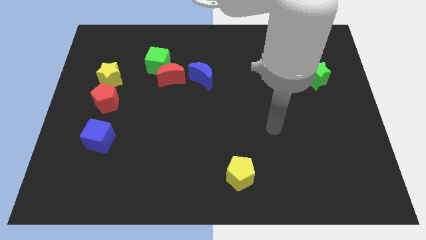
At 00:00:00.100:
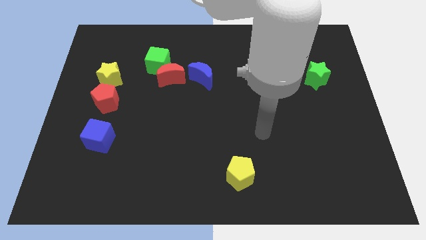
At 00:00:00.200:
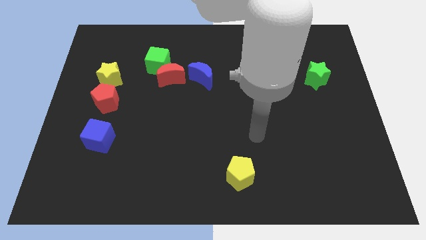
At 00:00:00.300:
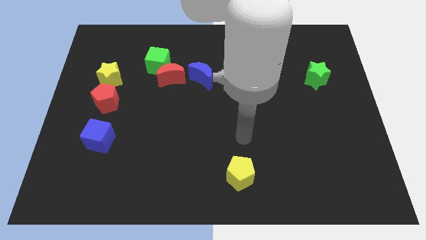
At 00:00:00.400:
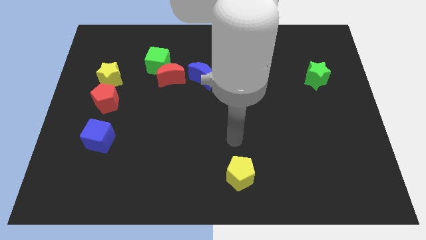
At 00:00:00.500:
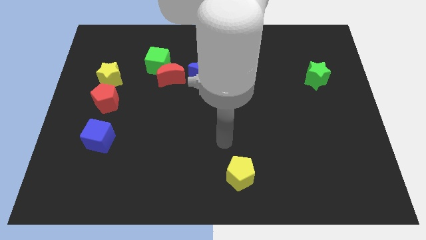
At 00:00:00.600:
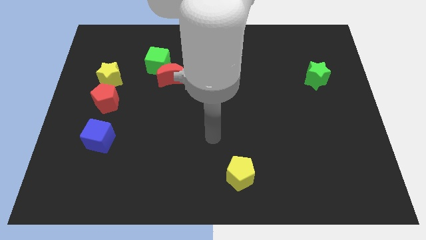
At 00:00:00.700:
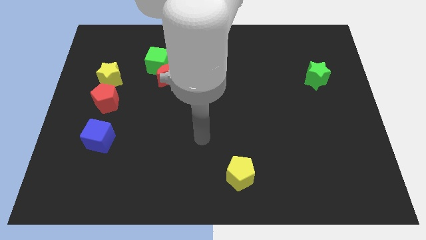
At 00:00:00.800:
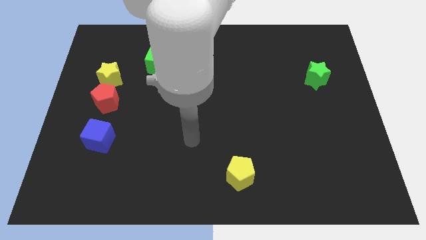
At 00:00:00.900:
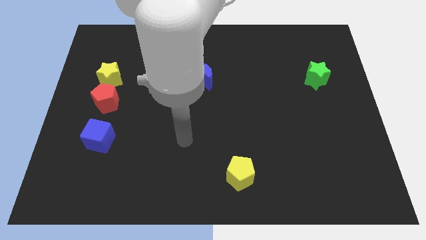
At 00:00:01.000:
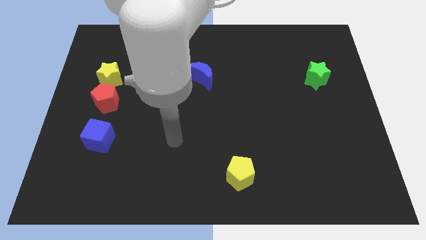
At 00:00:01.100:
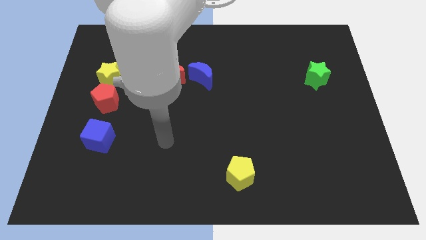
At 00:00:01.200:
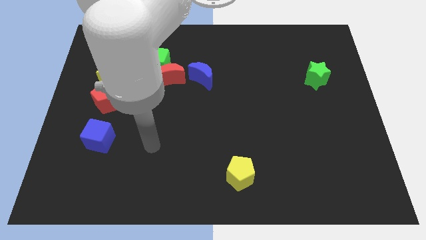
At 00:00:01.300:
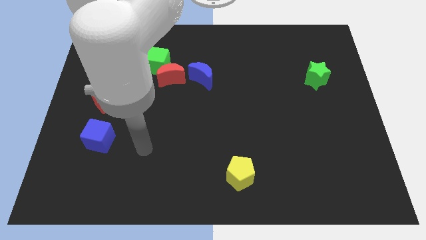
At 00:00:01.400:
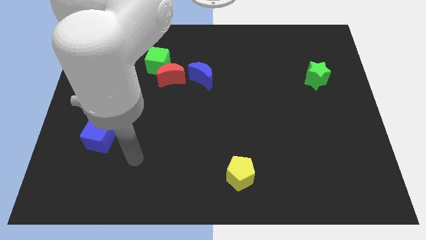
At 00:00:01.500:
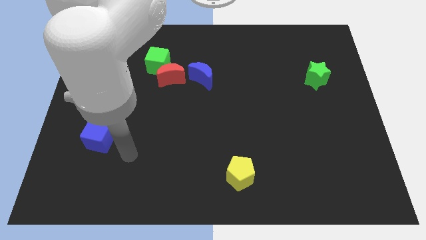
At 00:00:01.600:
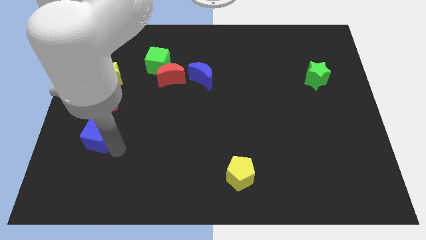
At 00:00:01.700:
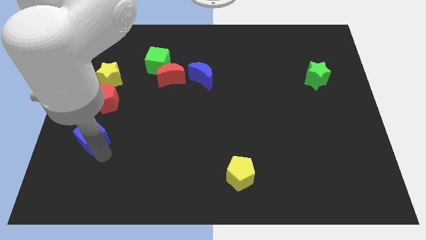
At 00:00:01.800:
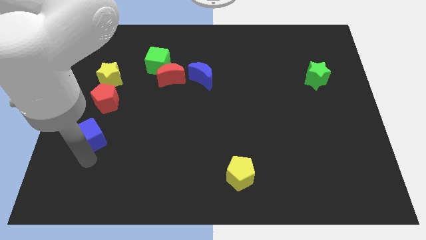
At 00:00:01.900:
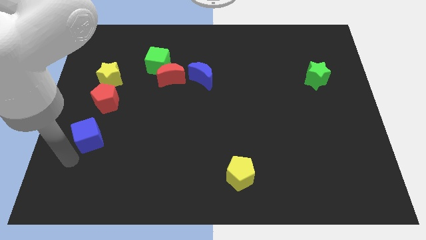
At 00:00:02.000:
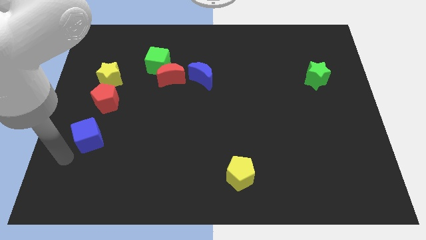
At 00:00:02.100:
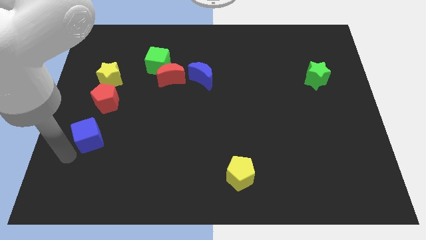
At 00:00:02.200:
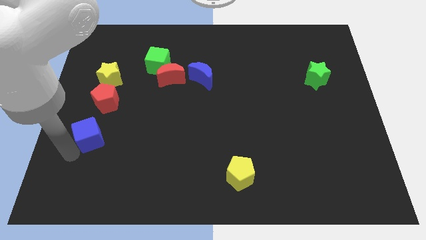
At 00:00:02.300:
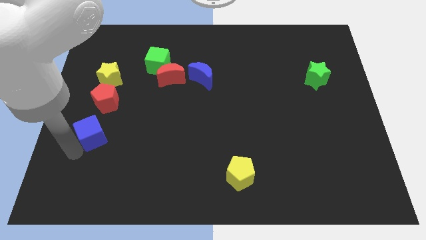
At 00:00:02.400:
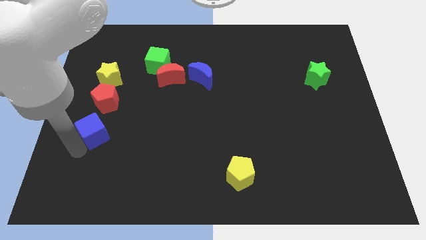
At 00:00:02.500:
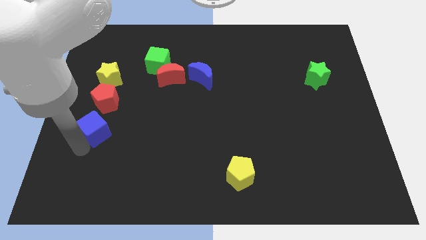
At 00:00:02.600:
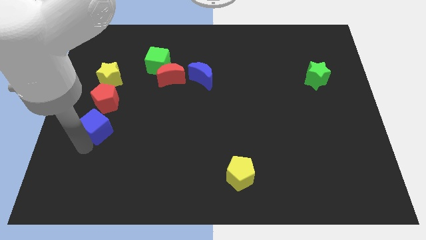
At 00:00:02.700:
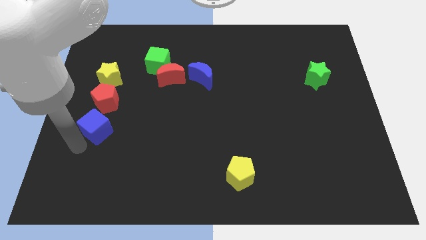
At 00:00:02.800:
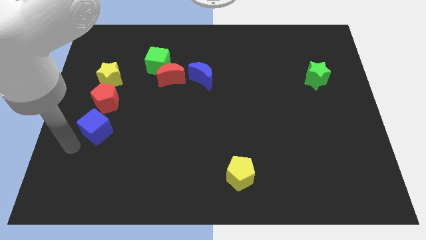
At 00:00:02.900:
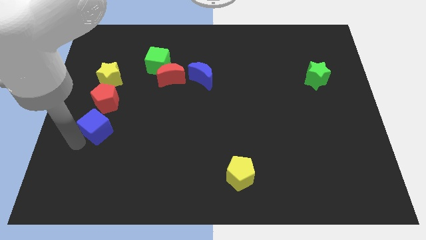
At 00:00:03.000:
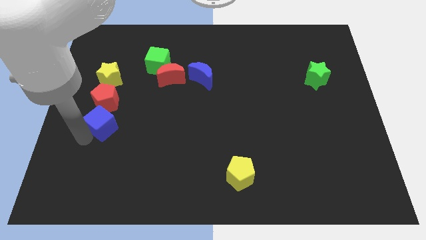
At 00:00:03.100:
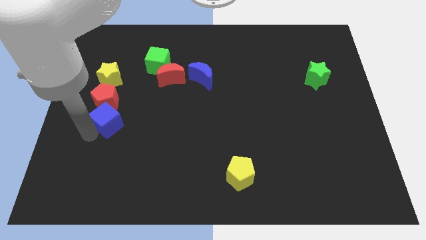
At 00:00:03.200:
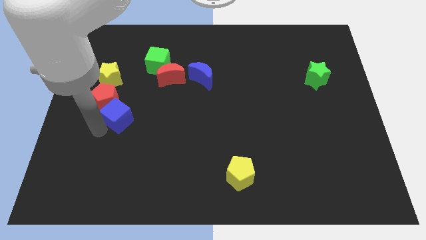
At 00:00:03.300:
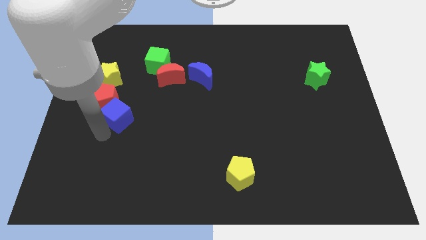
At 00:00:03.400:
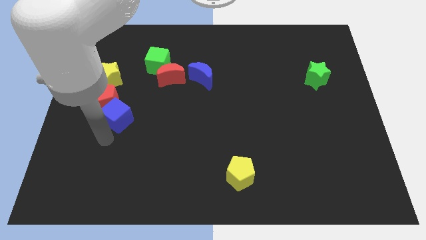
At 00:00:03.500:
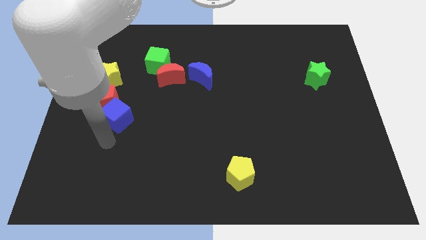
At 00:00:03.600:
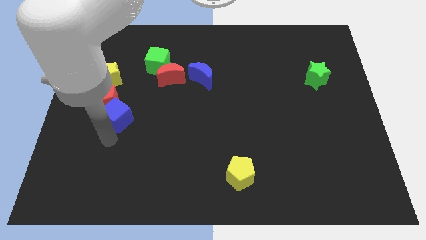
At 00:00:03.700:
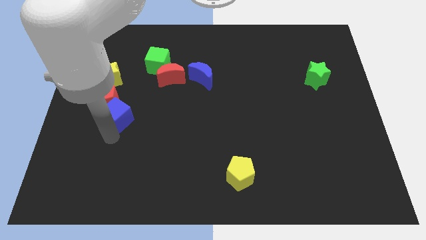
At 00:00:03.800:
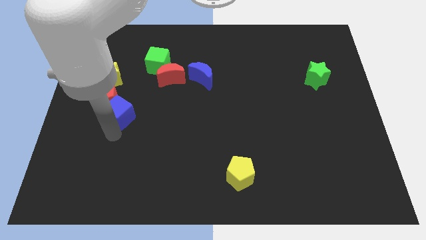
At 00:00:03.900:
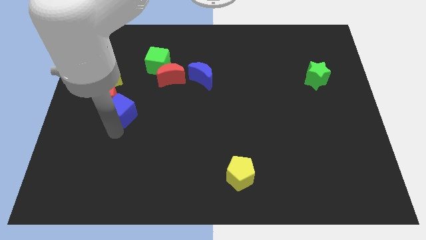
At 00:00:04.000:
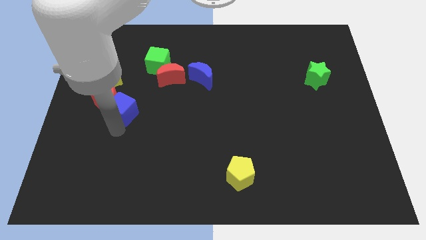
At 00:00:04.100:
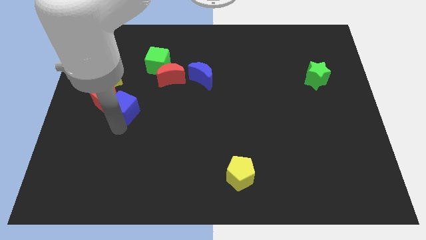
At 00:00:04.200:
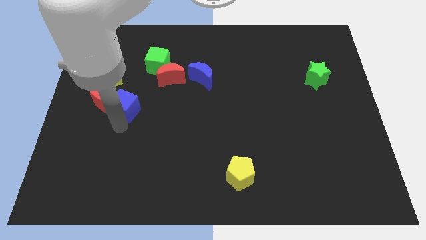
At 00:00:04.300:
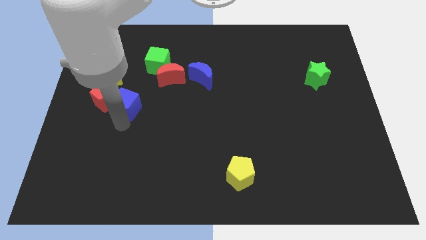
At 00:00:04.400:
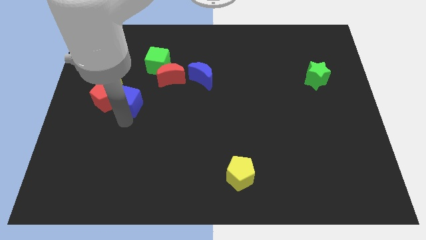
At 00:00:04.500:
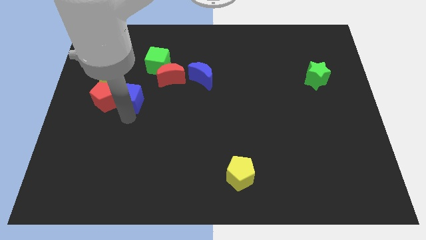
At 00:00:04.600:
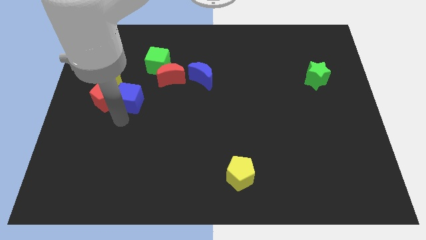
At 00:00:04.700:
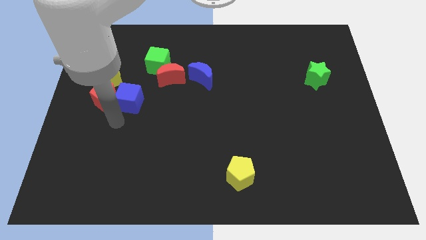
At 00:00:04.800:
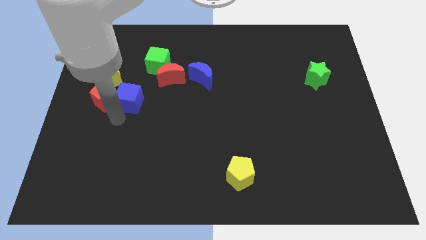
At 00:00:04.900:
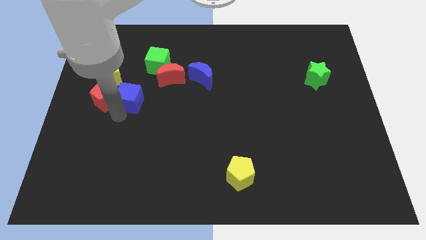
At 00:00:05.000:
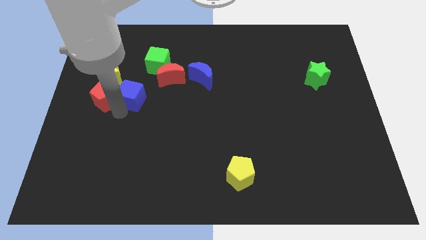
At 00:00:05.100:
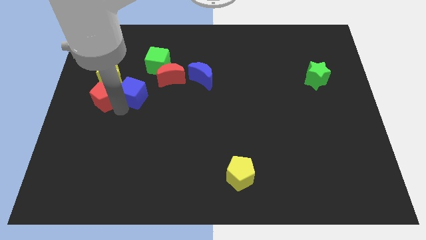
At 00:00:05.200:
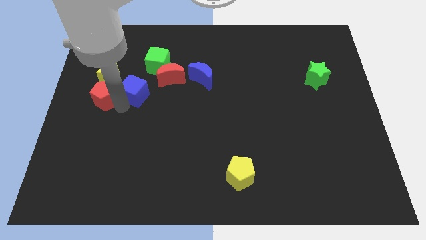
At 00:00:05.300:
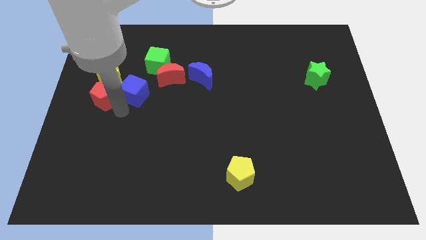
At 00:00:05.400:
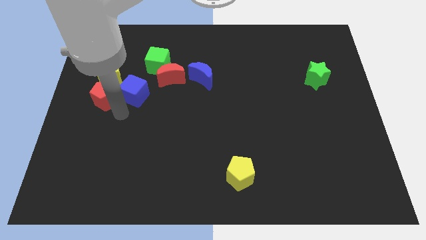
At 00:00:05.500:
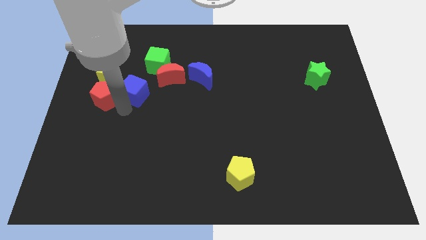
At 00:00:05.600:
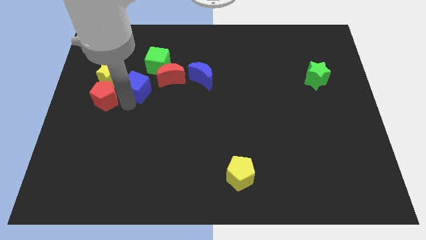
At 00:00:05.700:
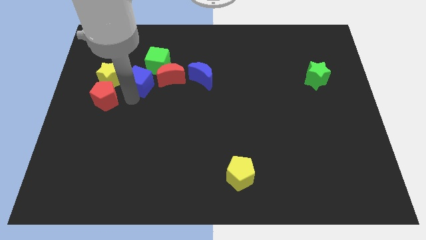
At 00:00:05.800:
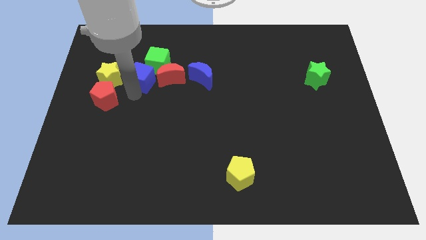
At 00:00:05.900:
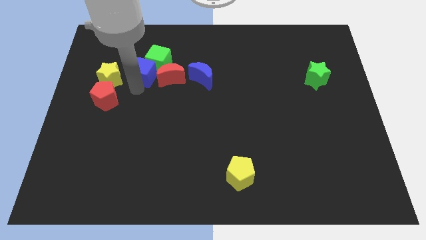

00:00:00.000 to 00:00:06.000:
slide the blue cube close to the green cube

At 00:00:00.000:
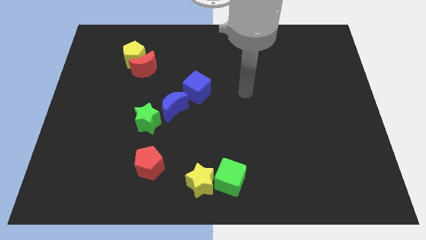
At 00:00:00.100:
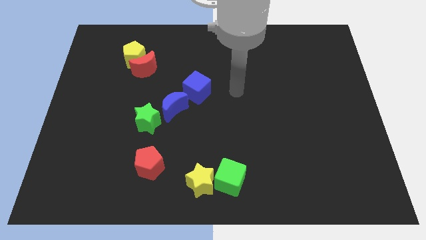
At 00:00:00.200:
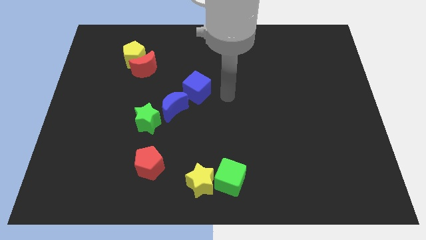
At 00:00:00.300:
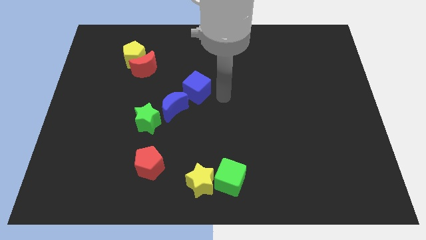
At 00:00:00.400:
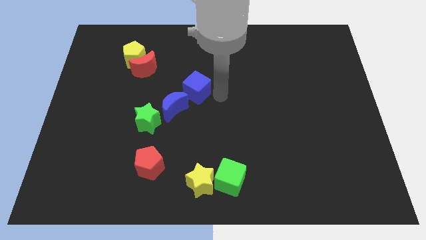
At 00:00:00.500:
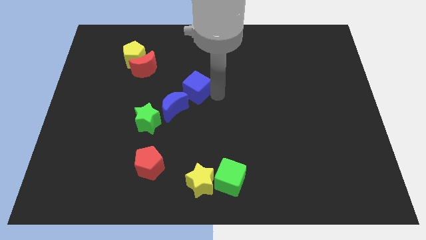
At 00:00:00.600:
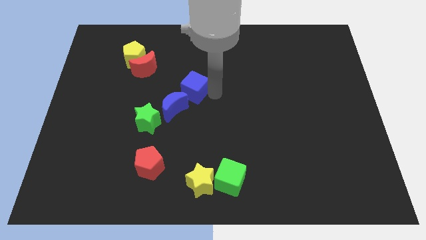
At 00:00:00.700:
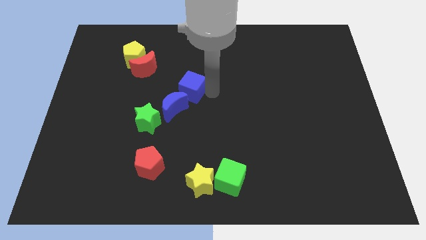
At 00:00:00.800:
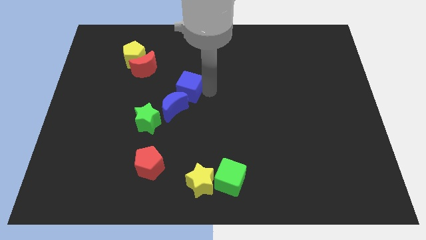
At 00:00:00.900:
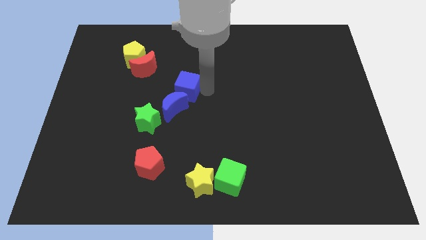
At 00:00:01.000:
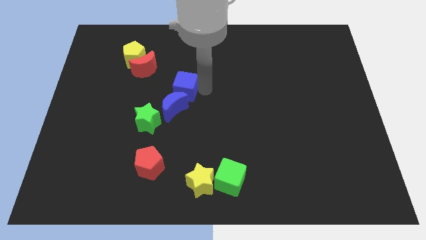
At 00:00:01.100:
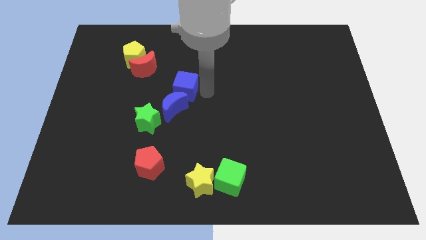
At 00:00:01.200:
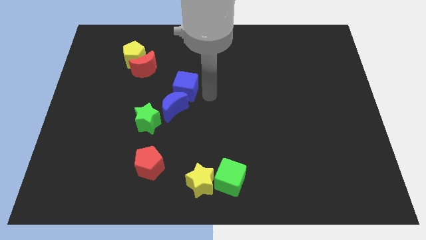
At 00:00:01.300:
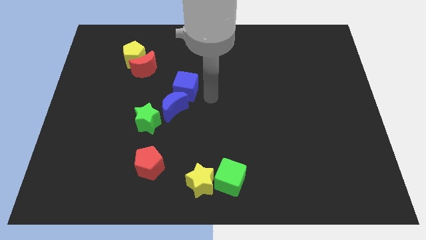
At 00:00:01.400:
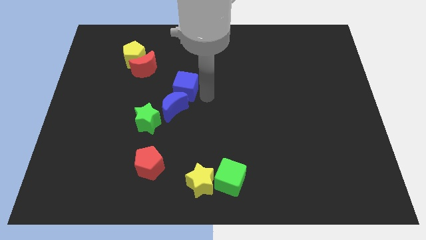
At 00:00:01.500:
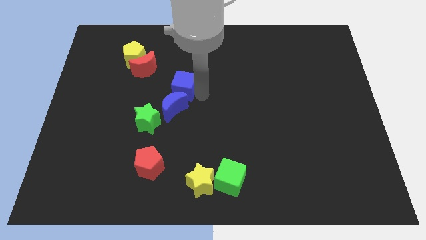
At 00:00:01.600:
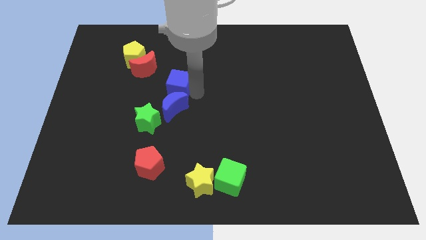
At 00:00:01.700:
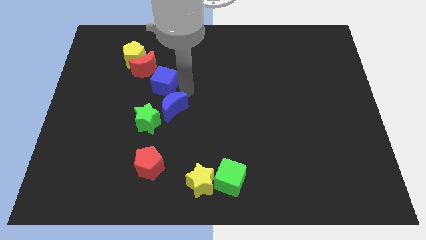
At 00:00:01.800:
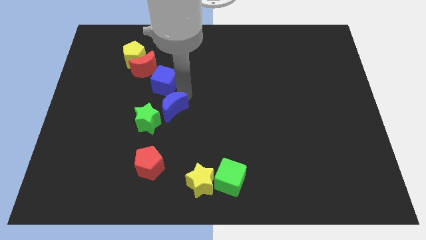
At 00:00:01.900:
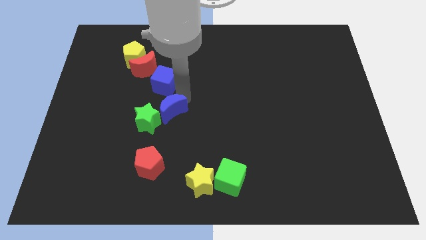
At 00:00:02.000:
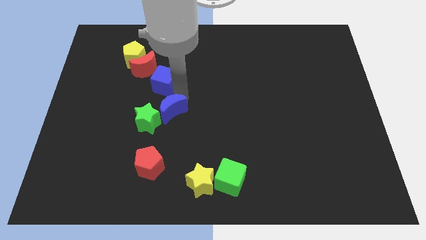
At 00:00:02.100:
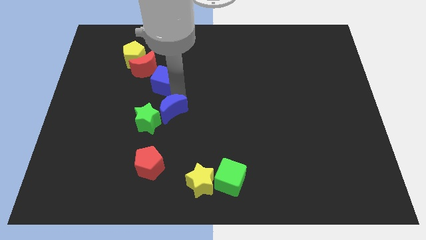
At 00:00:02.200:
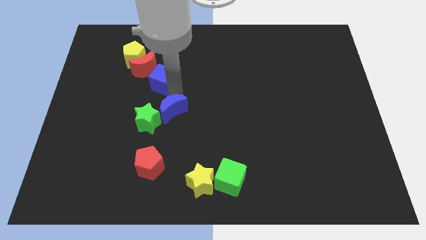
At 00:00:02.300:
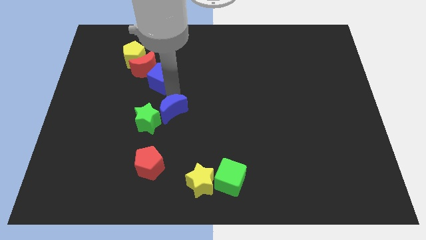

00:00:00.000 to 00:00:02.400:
slide the blue cube close to the red moon
